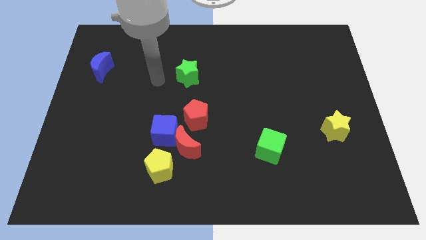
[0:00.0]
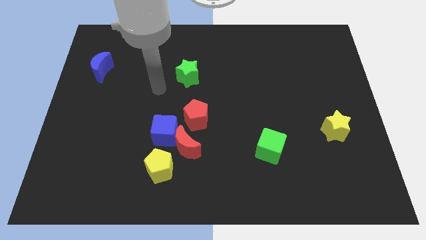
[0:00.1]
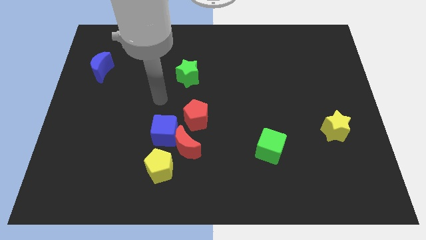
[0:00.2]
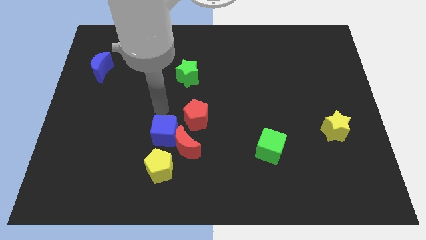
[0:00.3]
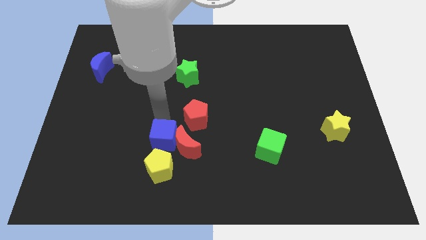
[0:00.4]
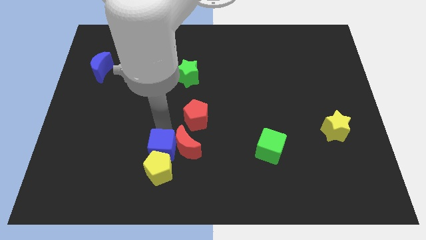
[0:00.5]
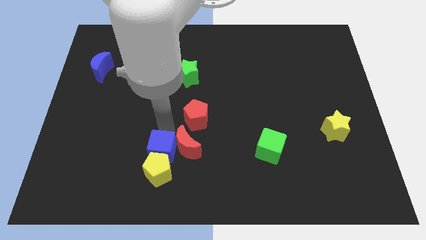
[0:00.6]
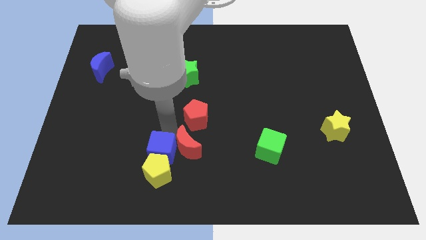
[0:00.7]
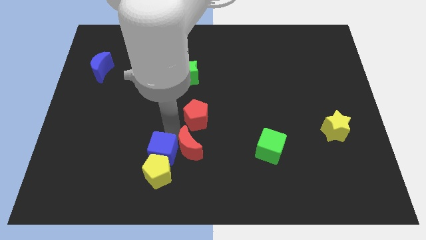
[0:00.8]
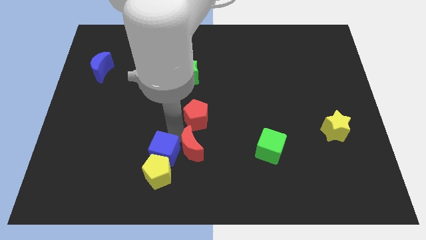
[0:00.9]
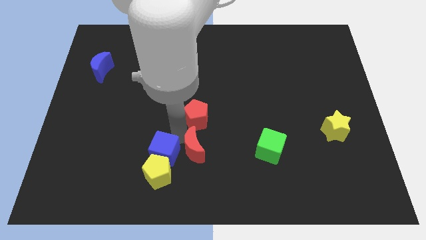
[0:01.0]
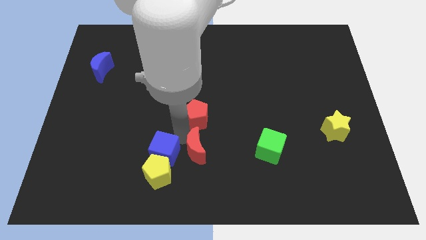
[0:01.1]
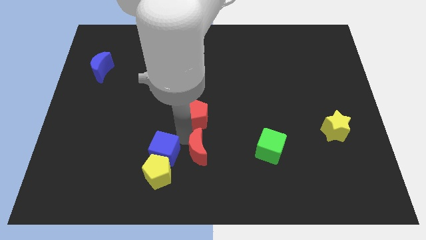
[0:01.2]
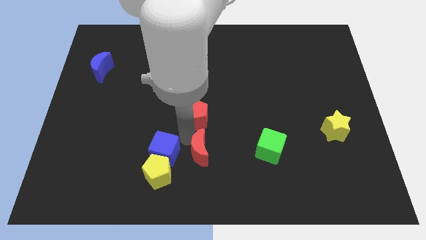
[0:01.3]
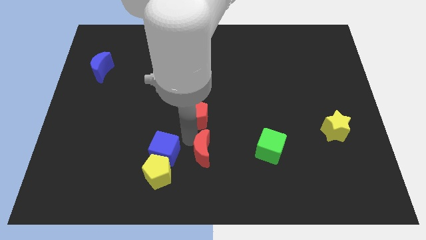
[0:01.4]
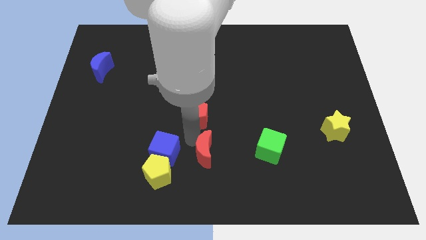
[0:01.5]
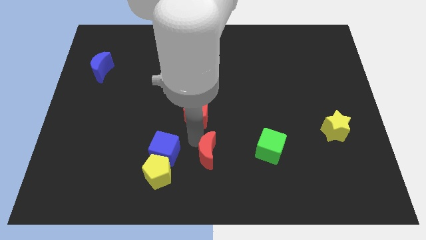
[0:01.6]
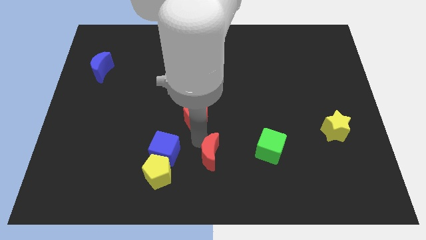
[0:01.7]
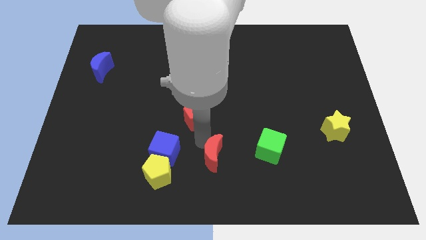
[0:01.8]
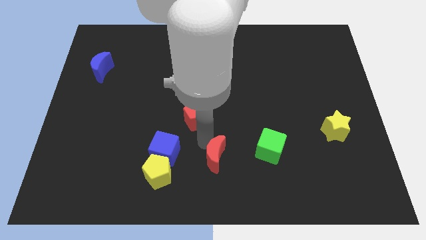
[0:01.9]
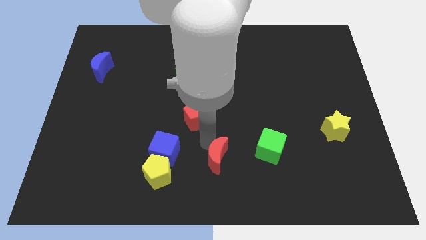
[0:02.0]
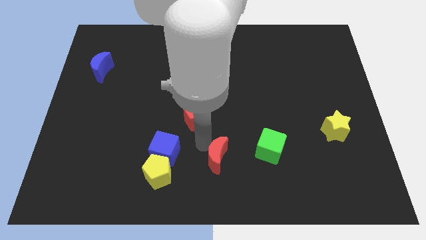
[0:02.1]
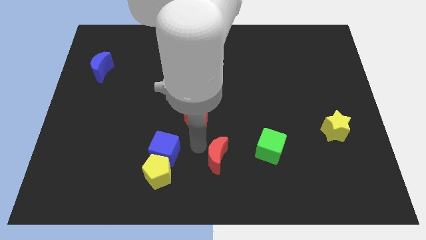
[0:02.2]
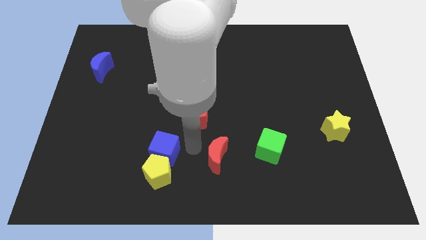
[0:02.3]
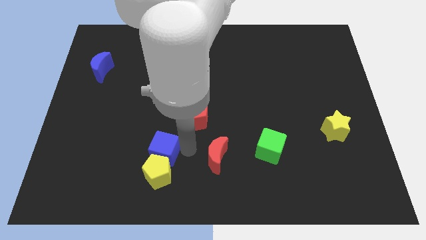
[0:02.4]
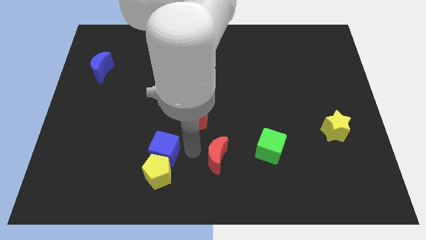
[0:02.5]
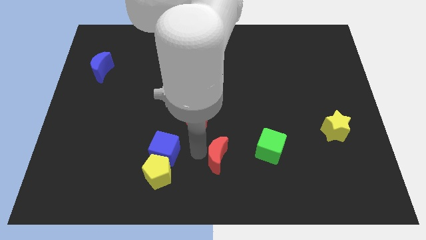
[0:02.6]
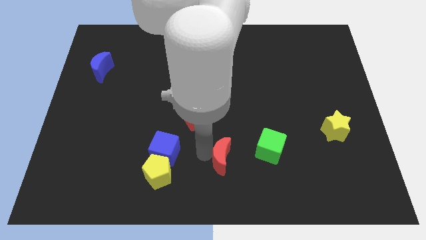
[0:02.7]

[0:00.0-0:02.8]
pull the red moon apart from the group

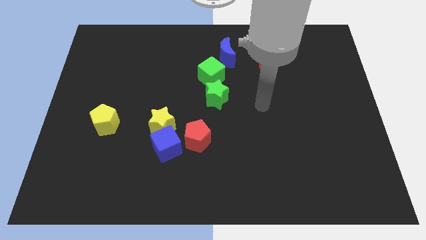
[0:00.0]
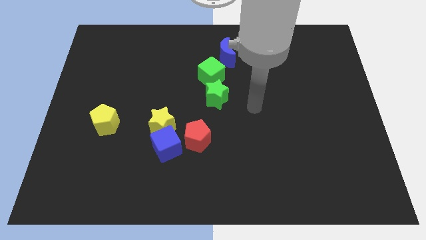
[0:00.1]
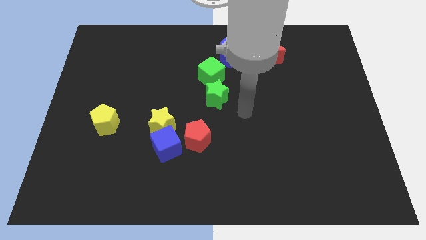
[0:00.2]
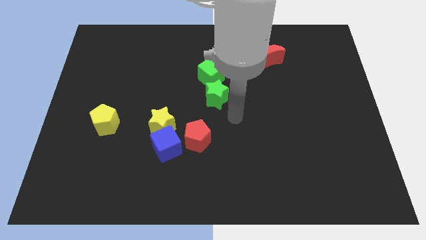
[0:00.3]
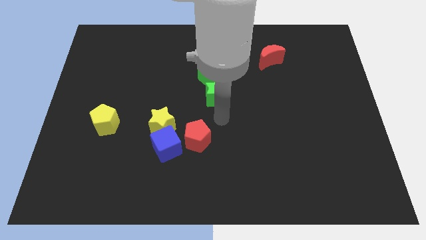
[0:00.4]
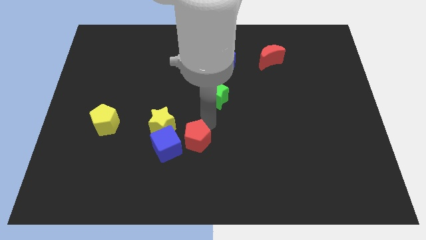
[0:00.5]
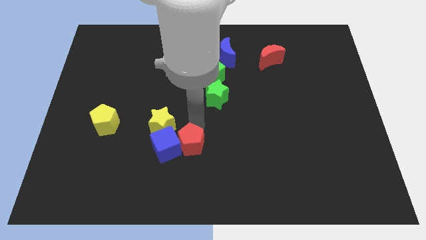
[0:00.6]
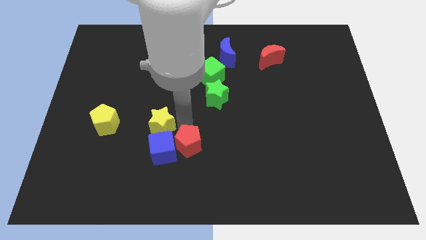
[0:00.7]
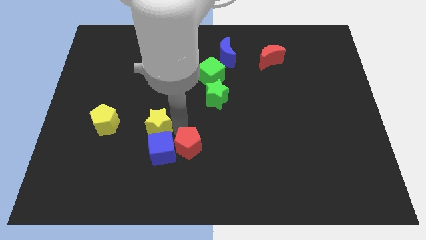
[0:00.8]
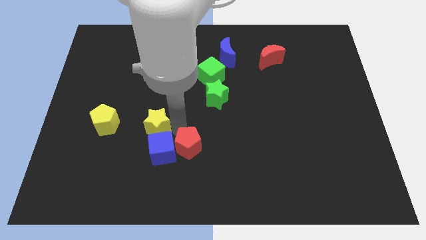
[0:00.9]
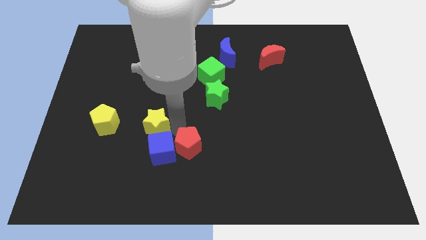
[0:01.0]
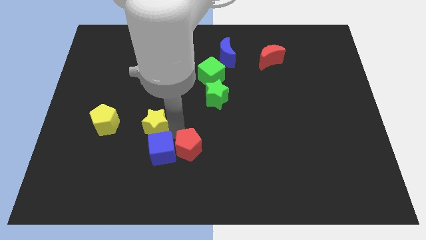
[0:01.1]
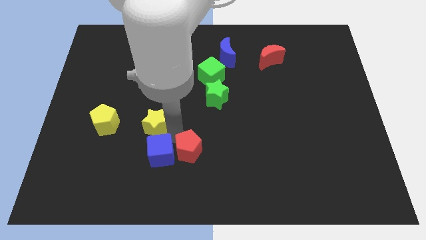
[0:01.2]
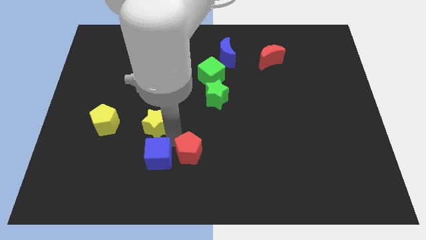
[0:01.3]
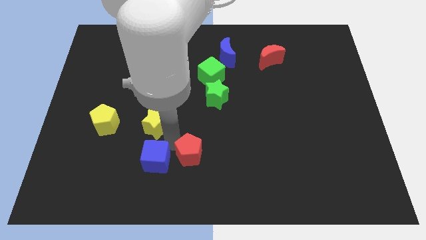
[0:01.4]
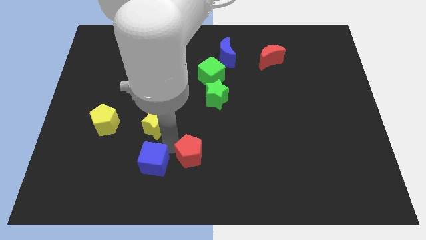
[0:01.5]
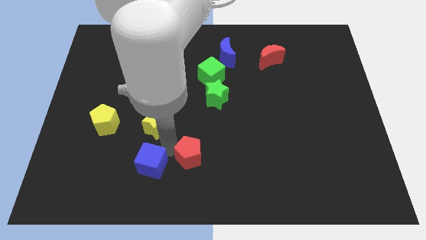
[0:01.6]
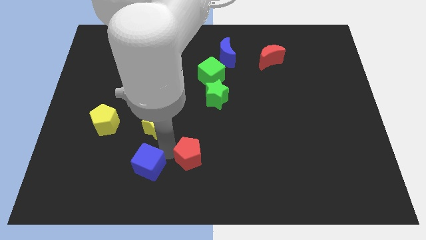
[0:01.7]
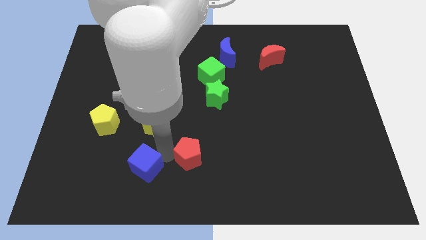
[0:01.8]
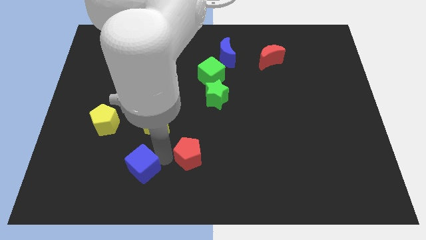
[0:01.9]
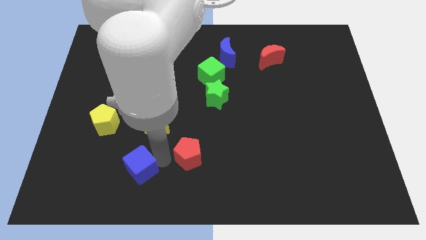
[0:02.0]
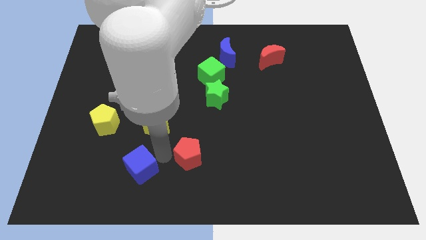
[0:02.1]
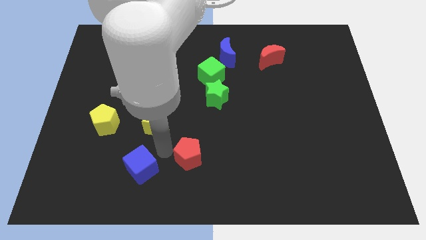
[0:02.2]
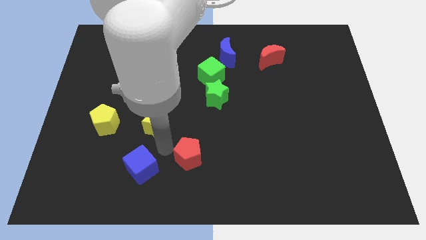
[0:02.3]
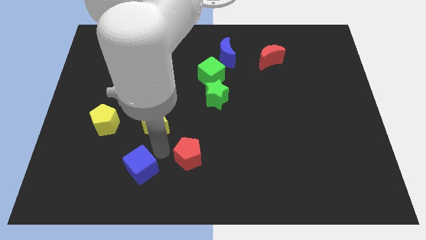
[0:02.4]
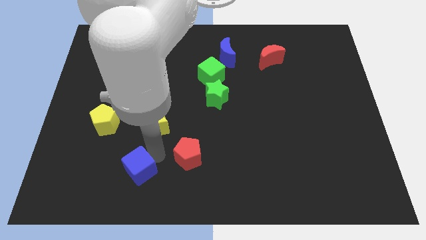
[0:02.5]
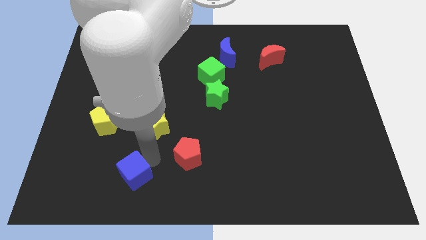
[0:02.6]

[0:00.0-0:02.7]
separate the blue cube from the yellow star and red pentagon

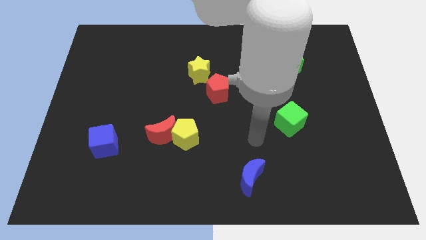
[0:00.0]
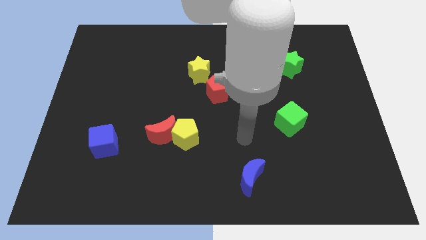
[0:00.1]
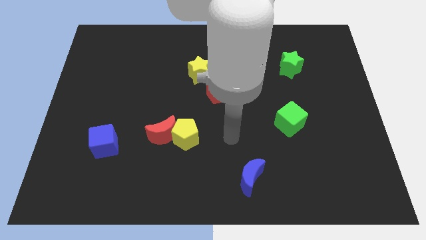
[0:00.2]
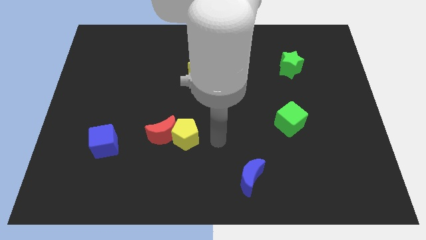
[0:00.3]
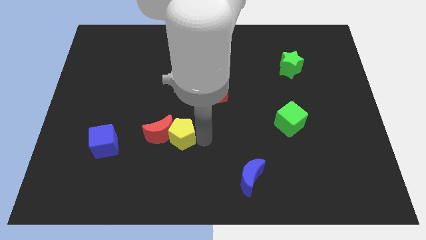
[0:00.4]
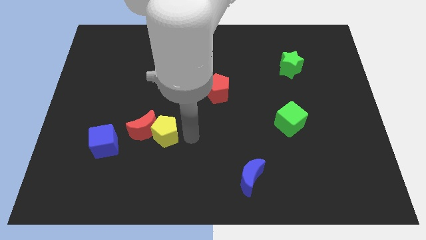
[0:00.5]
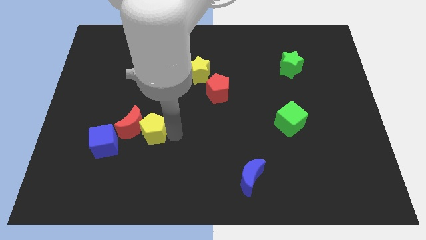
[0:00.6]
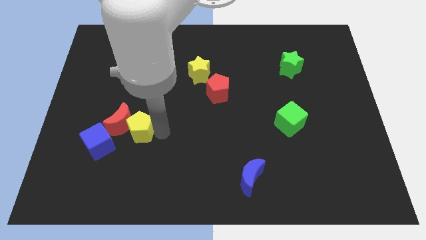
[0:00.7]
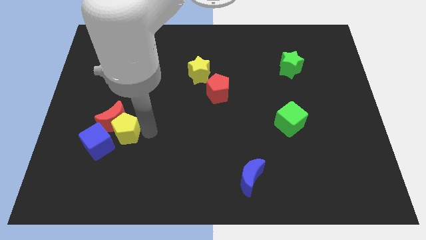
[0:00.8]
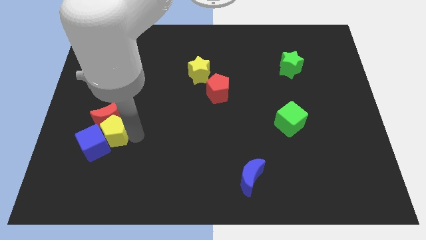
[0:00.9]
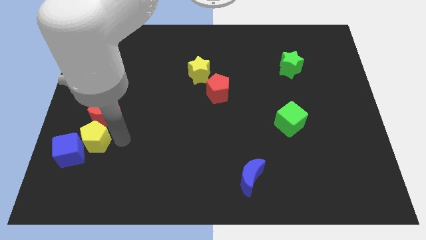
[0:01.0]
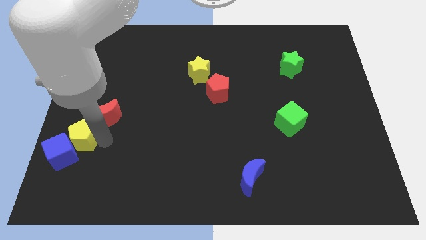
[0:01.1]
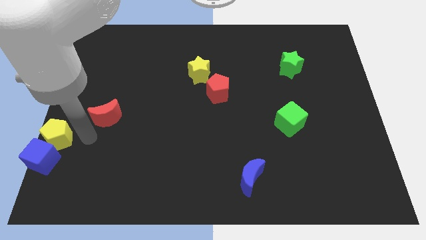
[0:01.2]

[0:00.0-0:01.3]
pull the red moon apart from the yellow pentagon

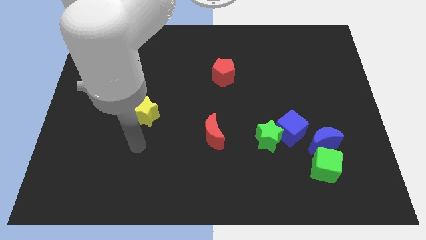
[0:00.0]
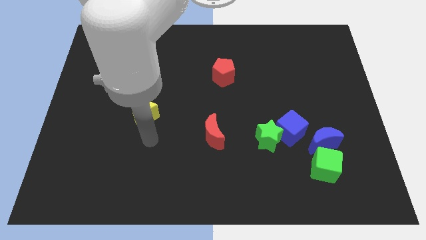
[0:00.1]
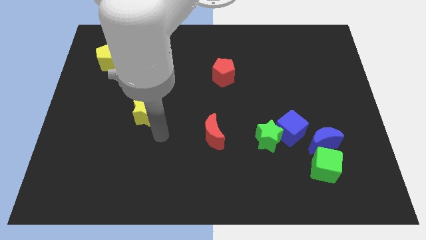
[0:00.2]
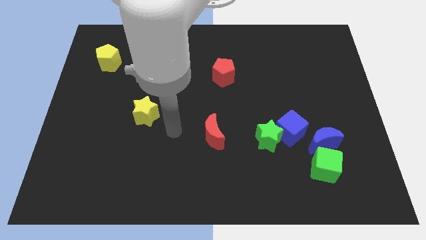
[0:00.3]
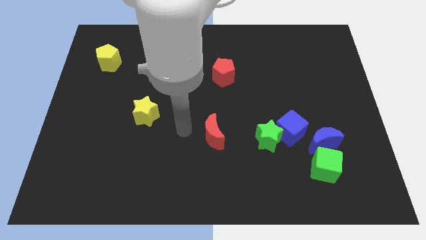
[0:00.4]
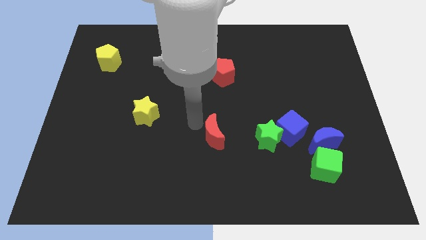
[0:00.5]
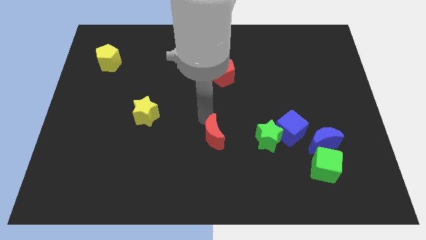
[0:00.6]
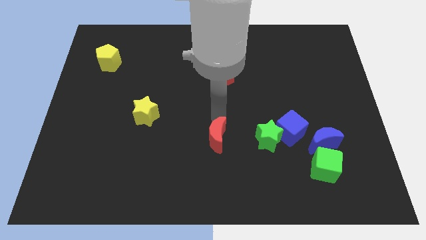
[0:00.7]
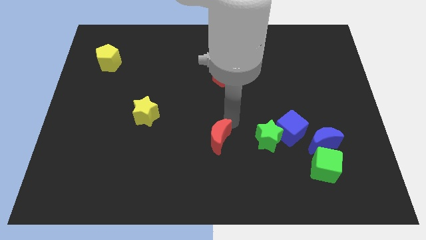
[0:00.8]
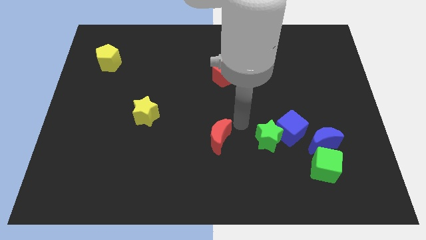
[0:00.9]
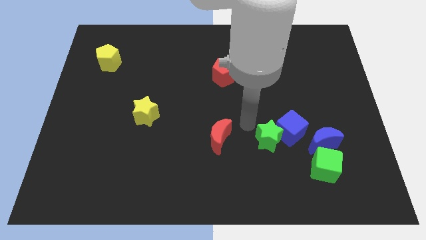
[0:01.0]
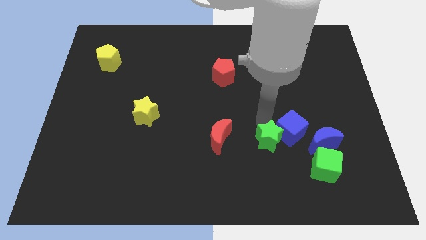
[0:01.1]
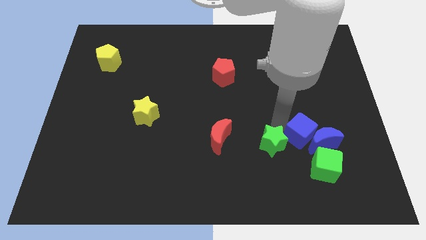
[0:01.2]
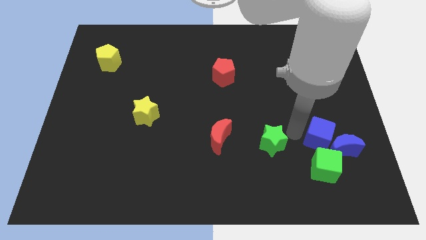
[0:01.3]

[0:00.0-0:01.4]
move the green star away from the blue cube

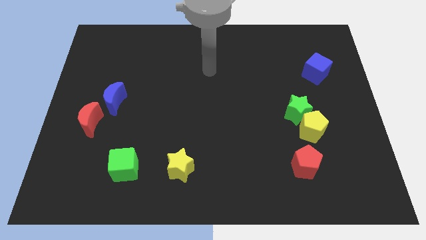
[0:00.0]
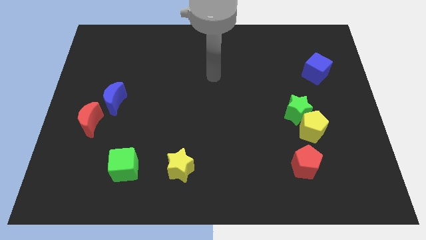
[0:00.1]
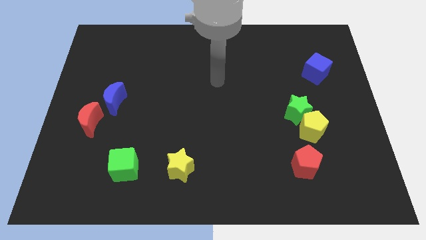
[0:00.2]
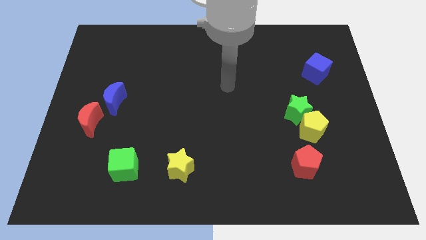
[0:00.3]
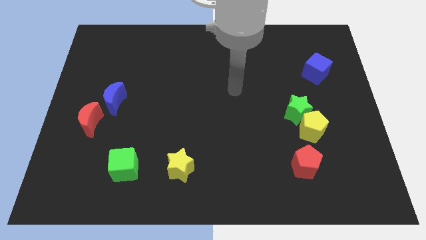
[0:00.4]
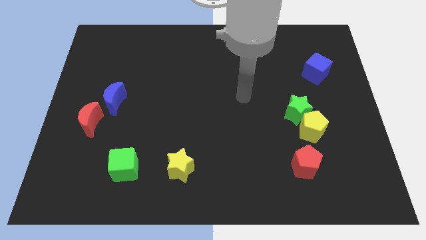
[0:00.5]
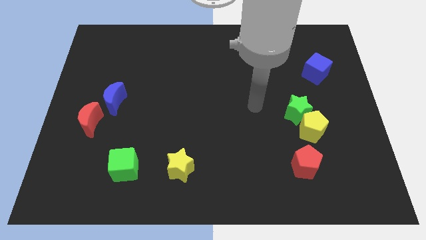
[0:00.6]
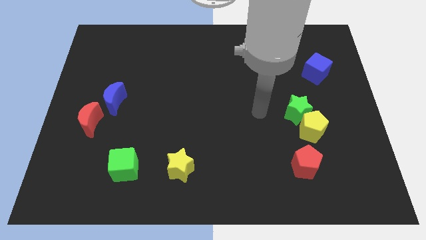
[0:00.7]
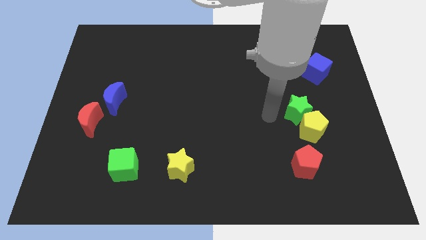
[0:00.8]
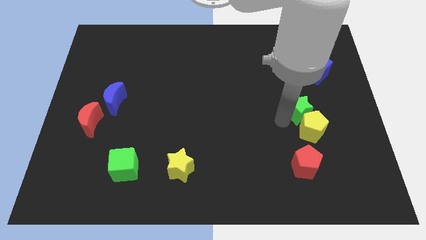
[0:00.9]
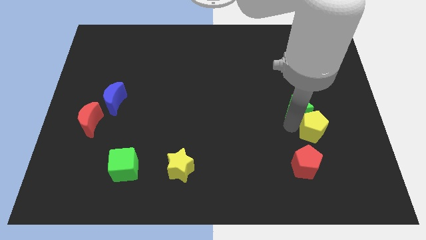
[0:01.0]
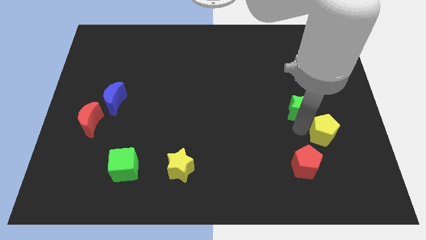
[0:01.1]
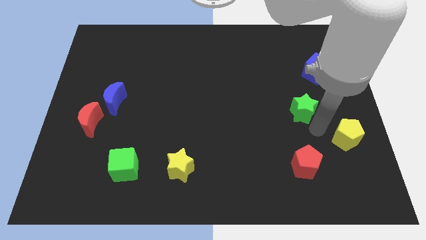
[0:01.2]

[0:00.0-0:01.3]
pull the green star apart from the yellow pentagon
